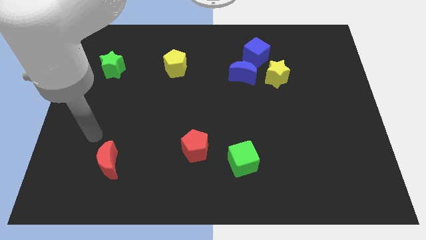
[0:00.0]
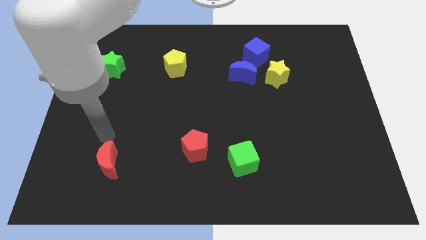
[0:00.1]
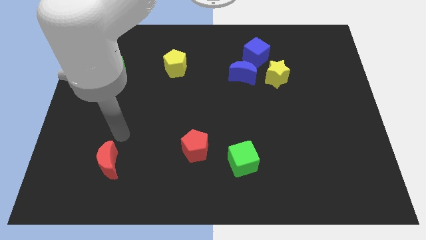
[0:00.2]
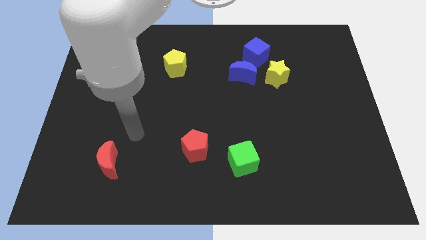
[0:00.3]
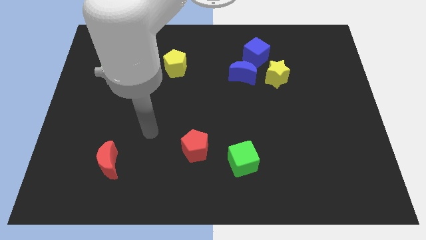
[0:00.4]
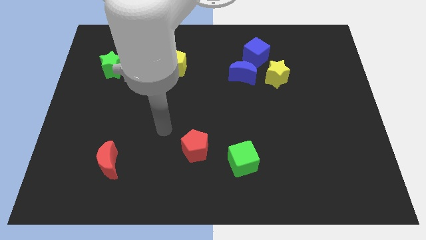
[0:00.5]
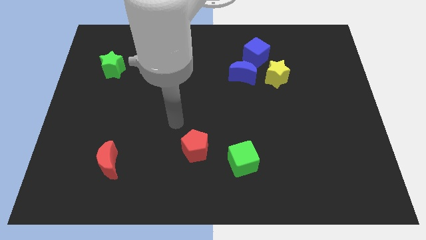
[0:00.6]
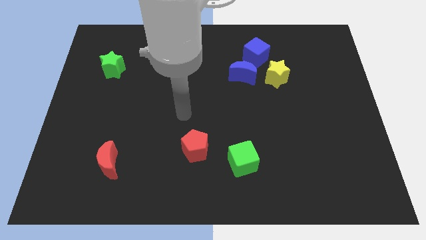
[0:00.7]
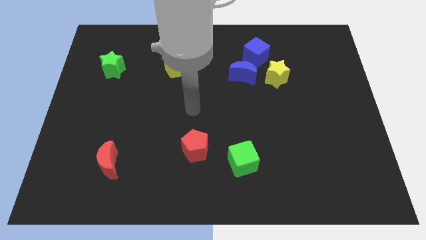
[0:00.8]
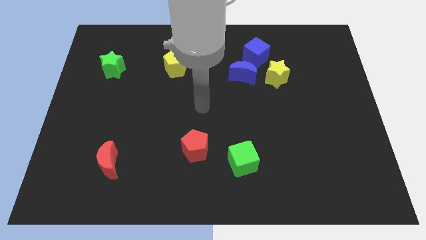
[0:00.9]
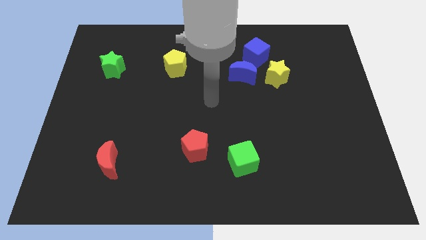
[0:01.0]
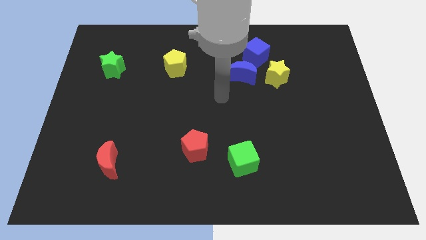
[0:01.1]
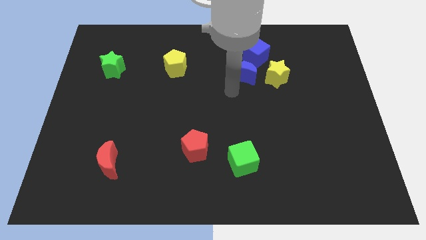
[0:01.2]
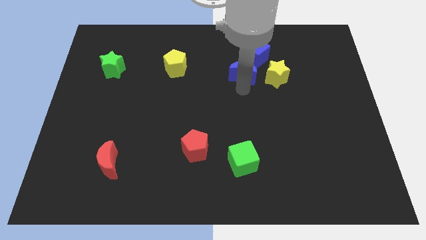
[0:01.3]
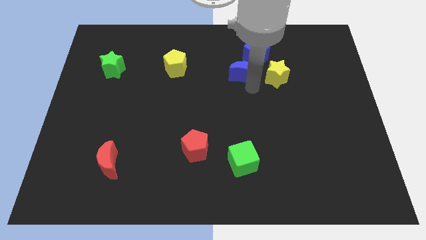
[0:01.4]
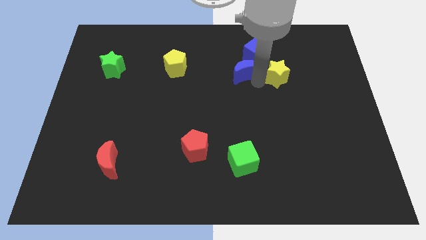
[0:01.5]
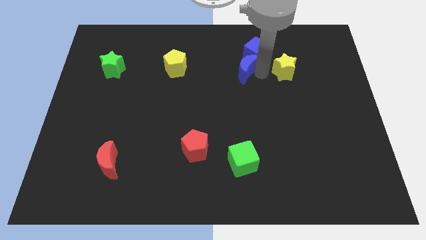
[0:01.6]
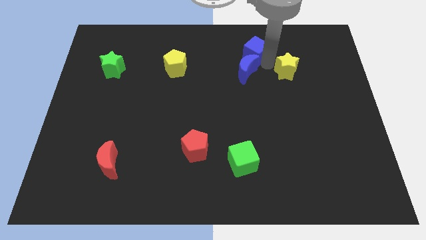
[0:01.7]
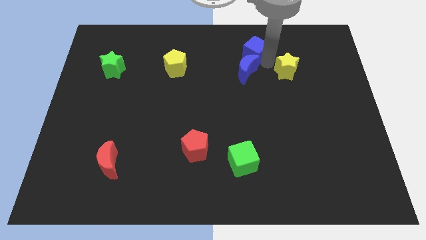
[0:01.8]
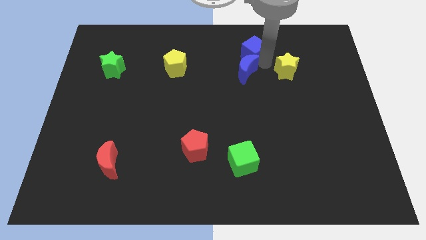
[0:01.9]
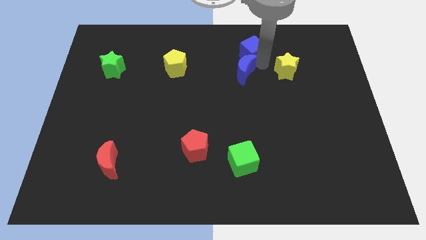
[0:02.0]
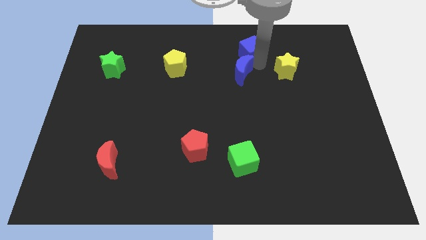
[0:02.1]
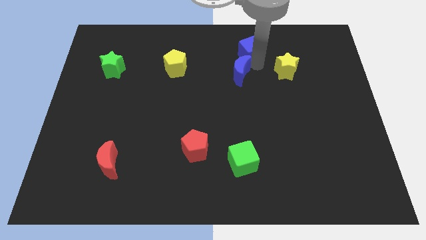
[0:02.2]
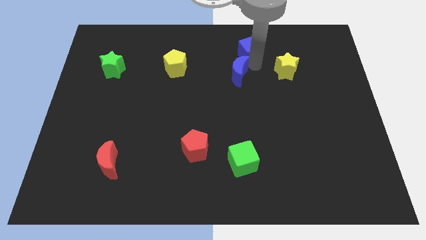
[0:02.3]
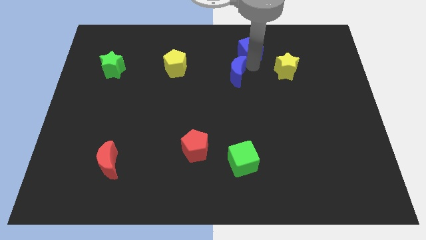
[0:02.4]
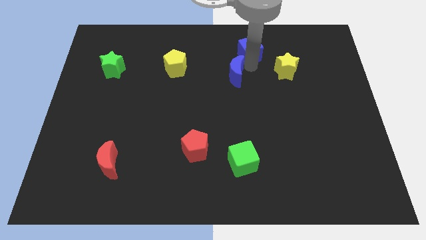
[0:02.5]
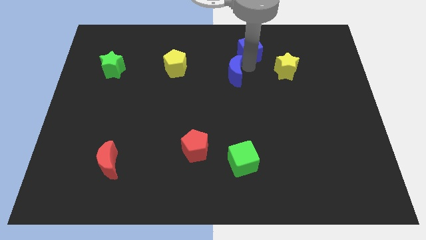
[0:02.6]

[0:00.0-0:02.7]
separate the blue moon from the blue cube and yellow star

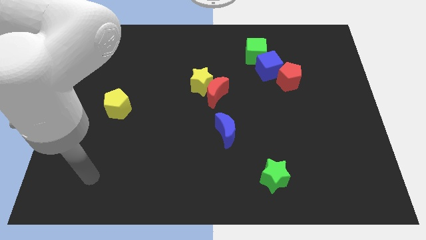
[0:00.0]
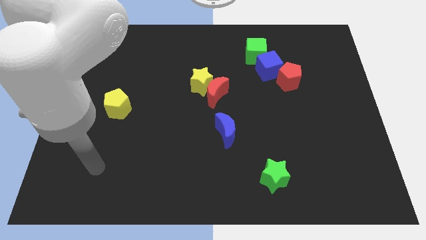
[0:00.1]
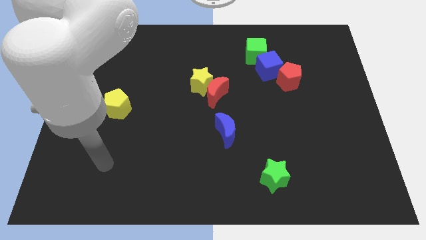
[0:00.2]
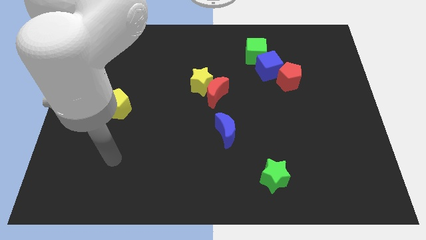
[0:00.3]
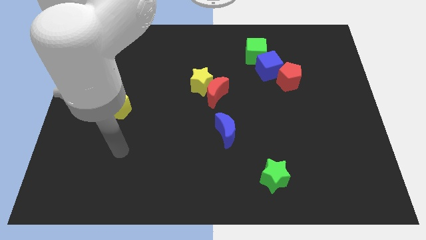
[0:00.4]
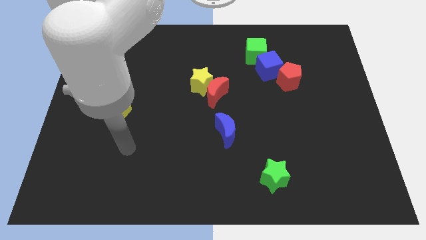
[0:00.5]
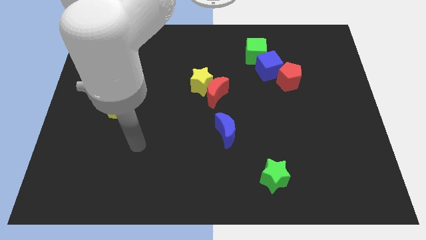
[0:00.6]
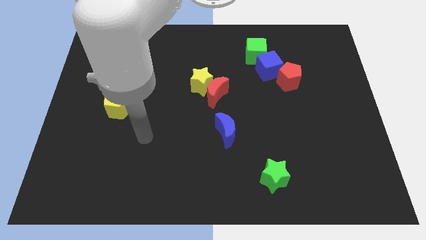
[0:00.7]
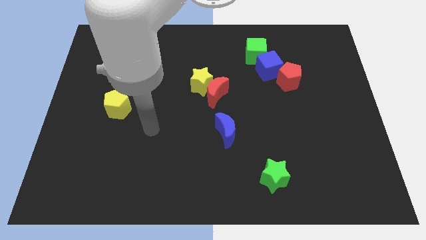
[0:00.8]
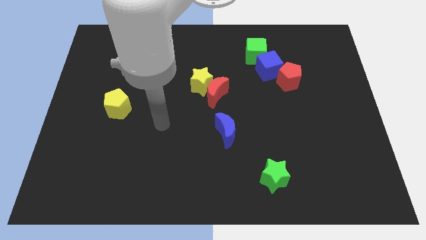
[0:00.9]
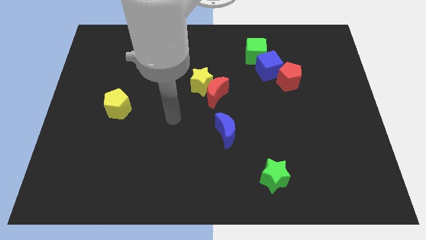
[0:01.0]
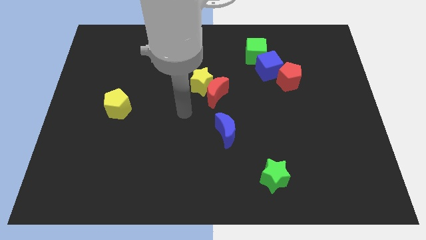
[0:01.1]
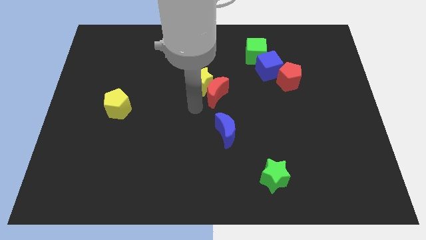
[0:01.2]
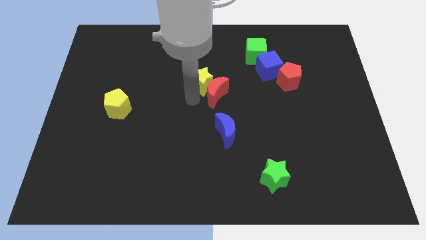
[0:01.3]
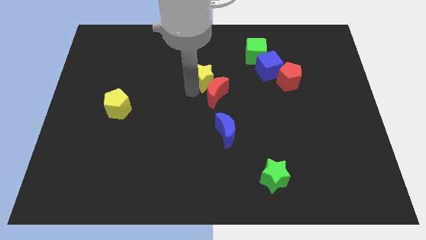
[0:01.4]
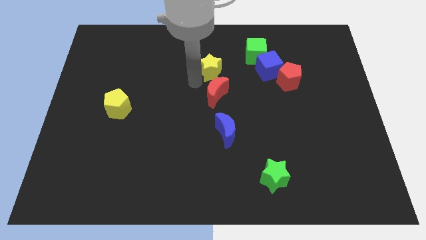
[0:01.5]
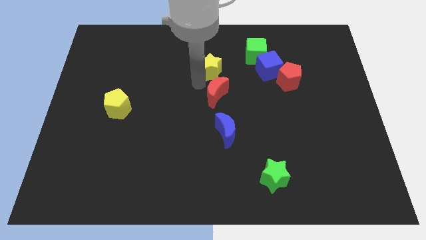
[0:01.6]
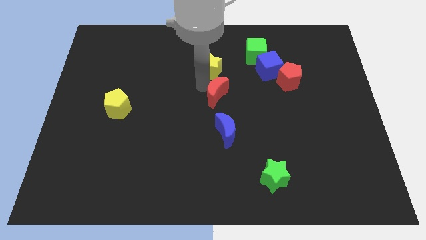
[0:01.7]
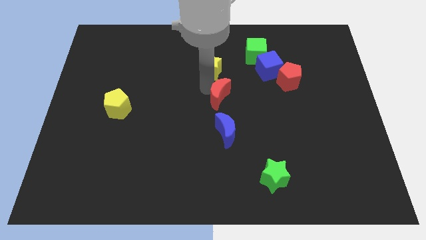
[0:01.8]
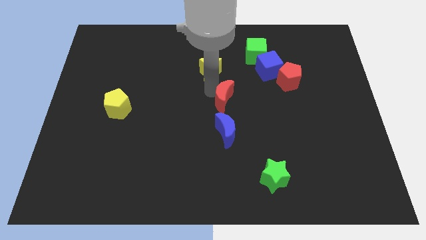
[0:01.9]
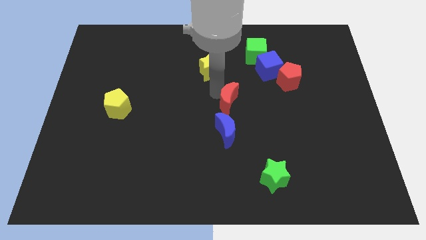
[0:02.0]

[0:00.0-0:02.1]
pull the red moon apart from the yellow star

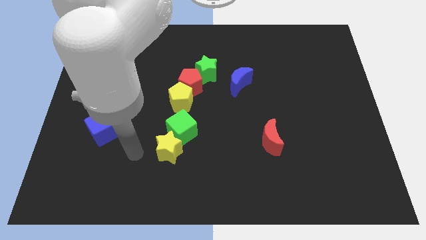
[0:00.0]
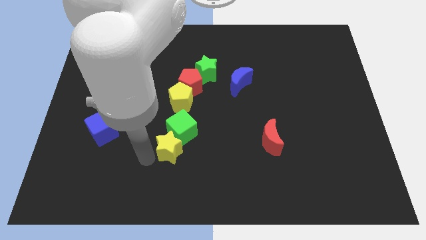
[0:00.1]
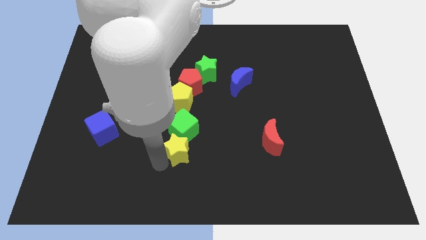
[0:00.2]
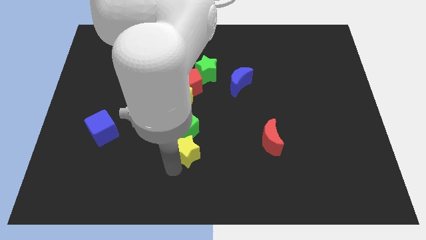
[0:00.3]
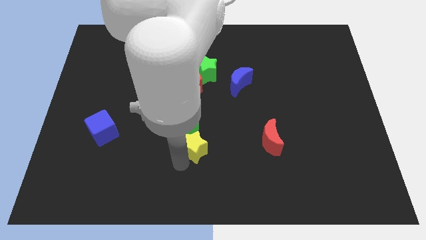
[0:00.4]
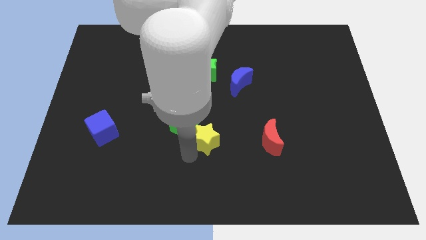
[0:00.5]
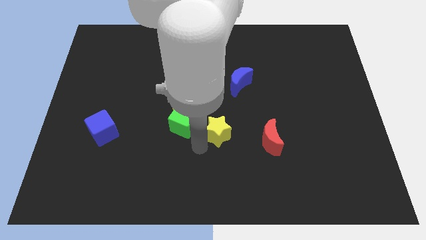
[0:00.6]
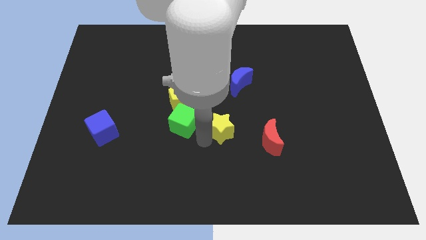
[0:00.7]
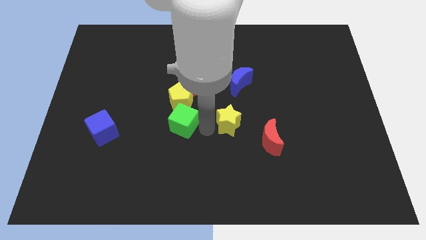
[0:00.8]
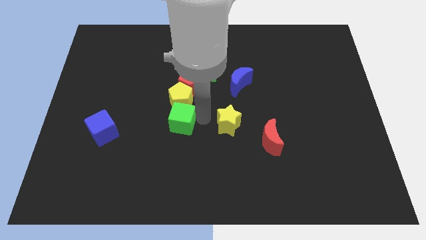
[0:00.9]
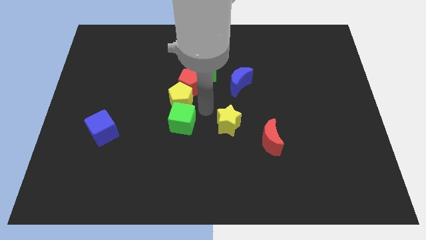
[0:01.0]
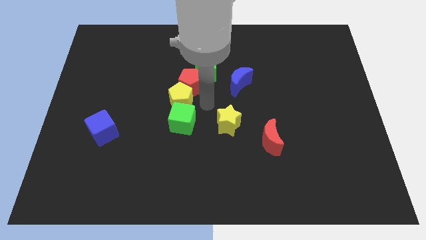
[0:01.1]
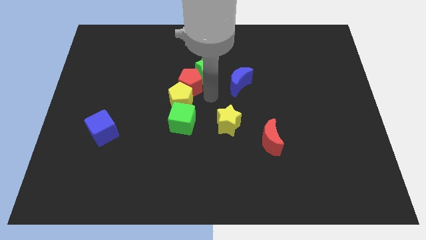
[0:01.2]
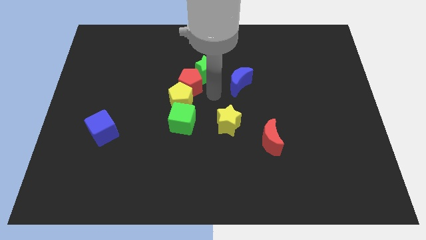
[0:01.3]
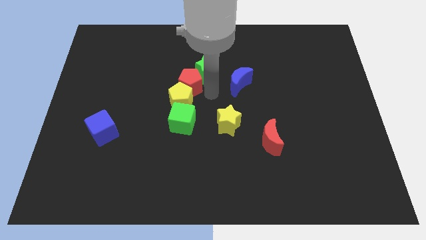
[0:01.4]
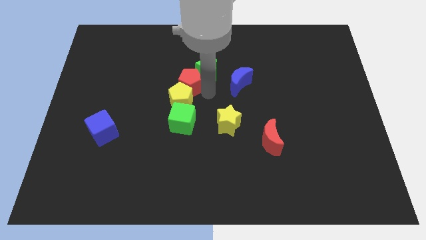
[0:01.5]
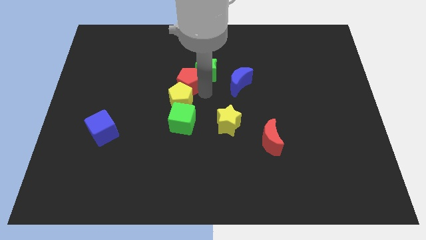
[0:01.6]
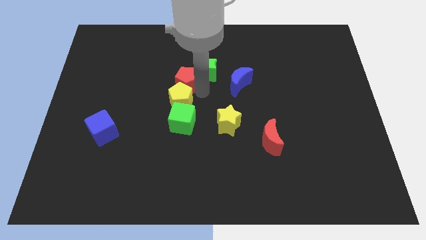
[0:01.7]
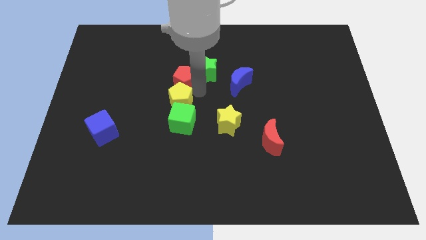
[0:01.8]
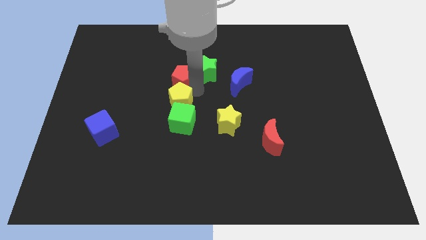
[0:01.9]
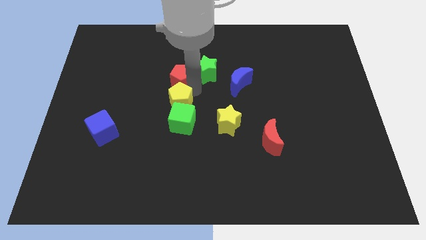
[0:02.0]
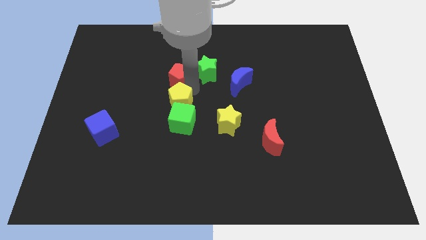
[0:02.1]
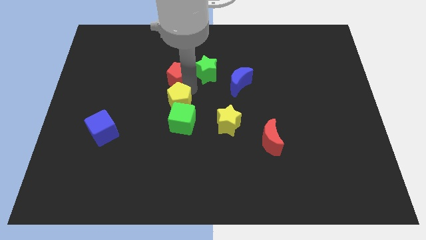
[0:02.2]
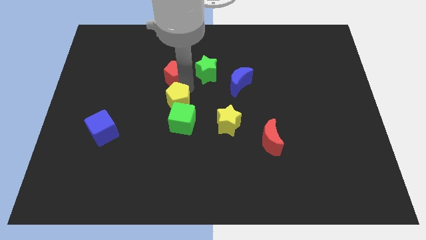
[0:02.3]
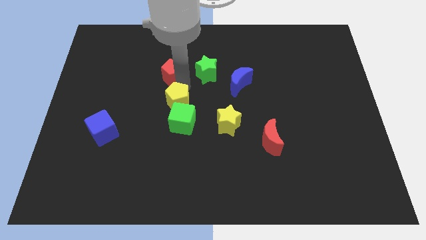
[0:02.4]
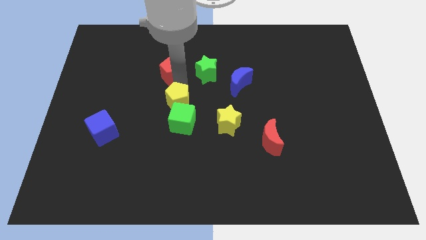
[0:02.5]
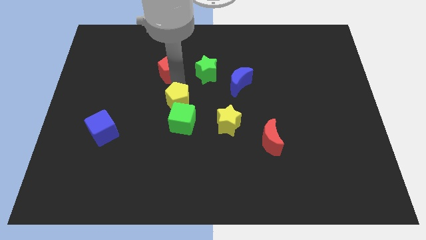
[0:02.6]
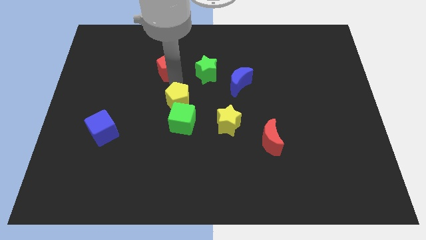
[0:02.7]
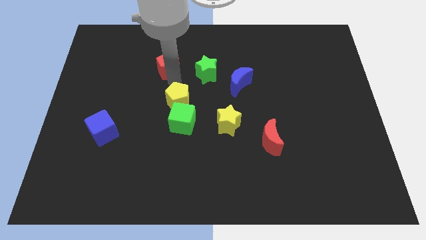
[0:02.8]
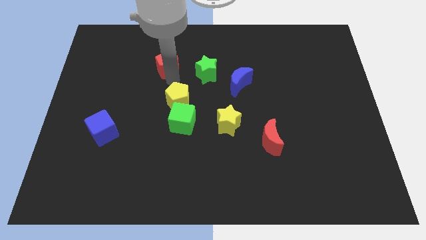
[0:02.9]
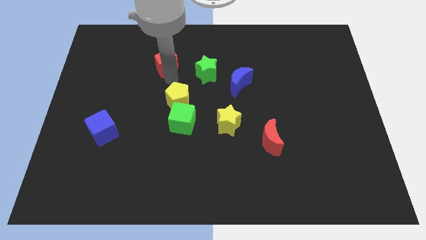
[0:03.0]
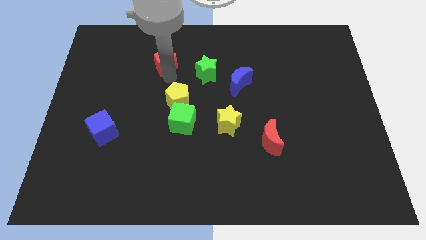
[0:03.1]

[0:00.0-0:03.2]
move the red pentagon away from the yellow pentagon and green star

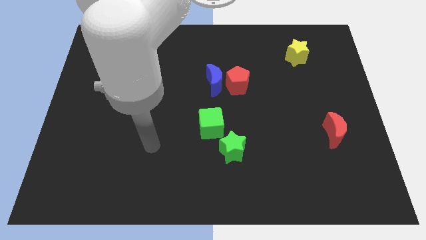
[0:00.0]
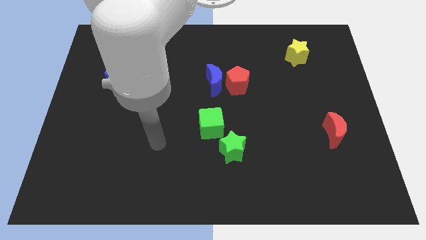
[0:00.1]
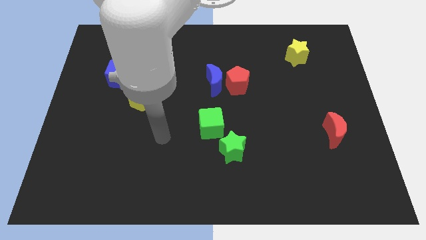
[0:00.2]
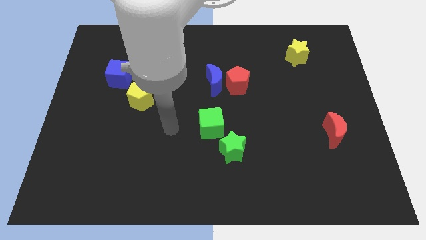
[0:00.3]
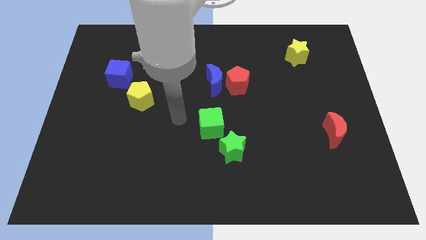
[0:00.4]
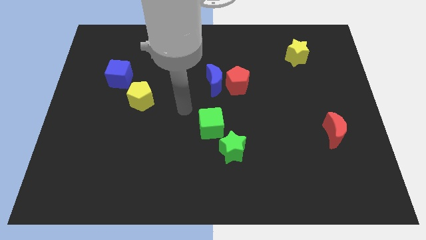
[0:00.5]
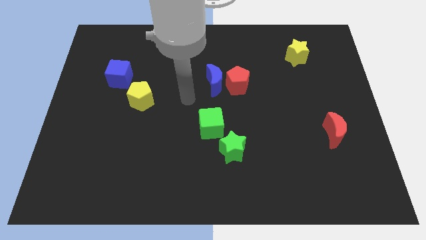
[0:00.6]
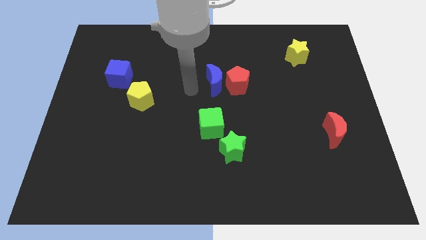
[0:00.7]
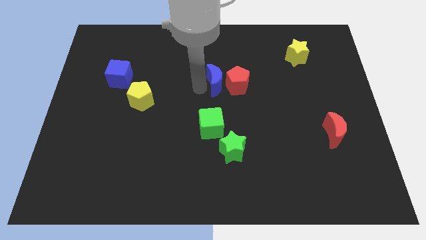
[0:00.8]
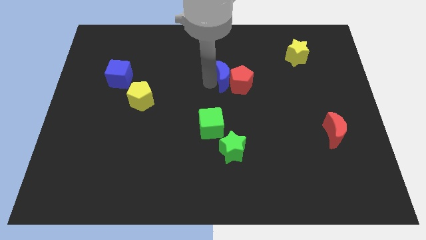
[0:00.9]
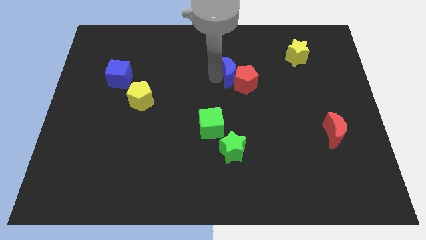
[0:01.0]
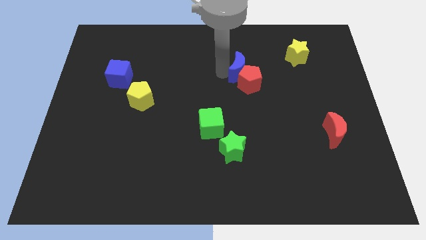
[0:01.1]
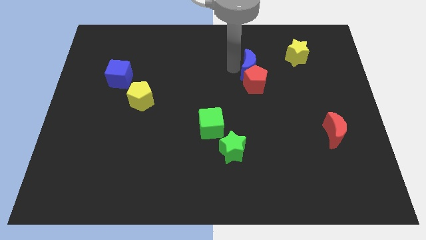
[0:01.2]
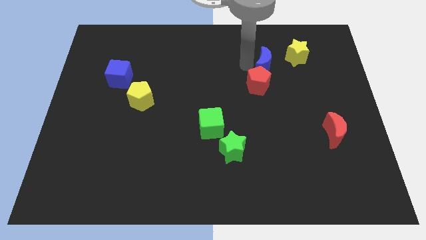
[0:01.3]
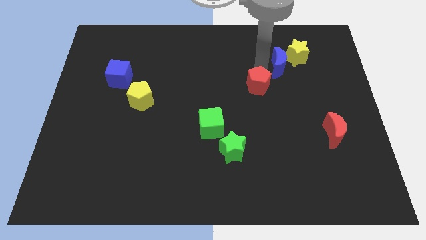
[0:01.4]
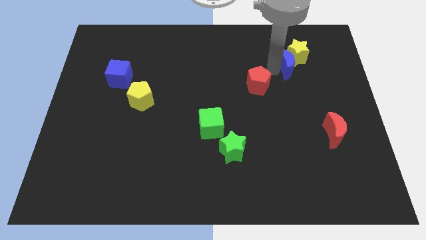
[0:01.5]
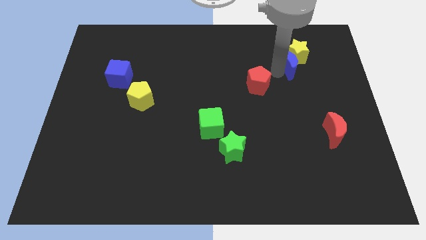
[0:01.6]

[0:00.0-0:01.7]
move the red pentagon away from the blue moon
